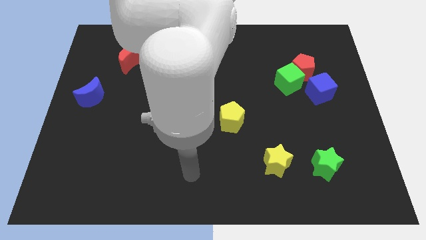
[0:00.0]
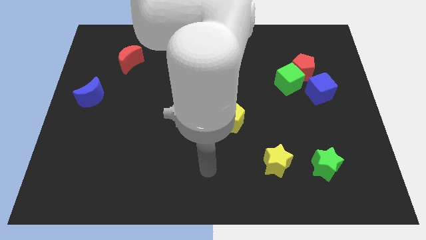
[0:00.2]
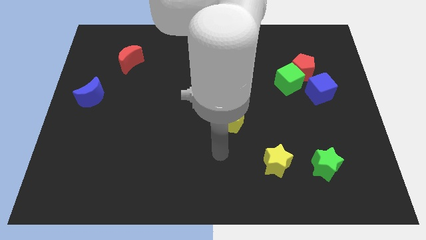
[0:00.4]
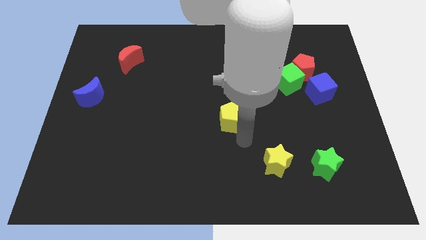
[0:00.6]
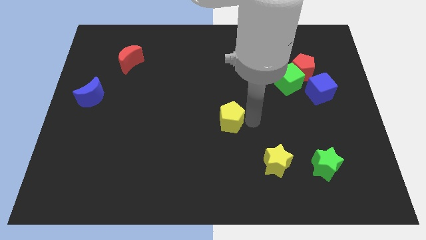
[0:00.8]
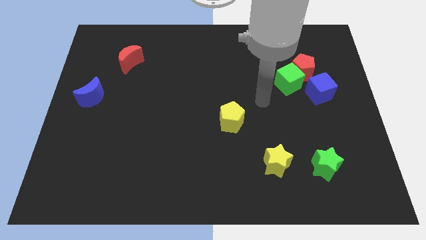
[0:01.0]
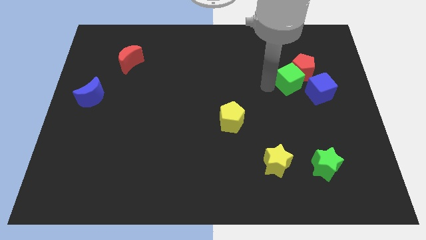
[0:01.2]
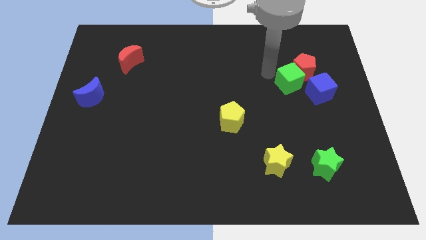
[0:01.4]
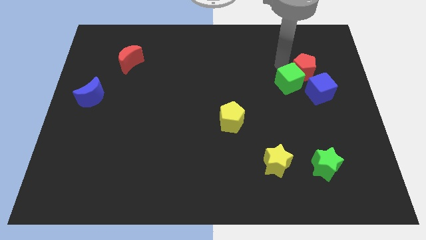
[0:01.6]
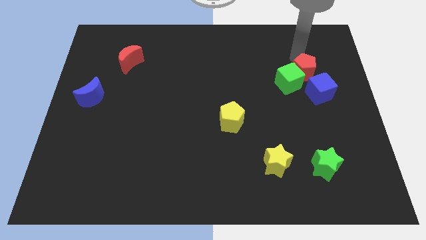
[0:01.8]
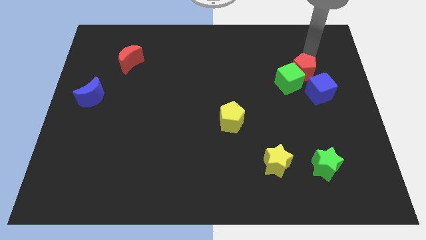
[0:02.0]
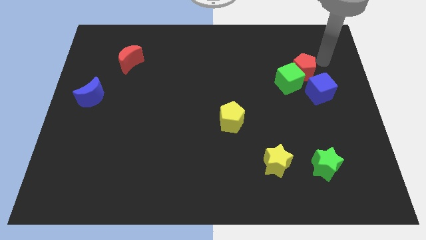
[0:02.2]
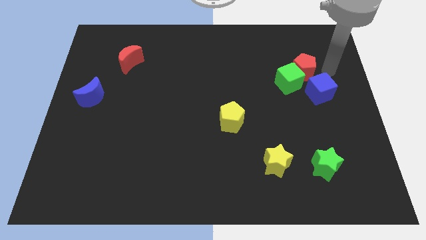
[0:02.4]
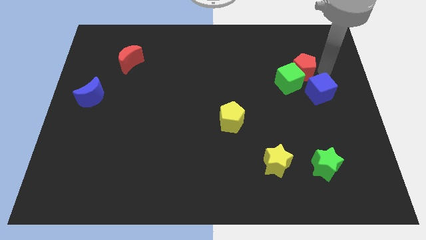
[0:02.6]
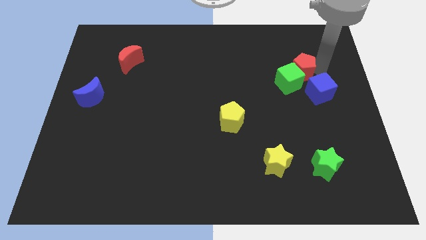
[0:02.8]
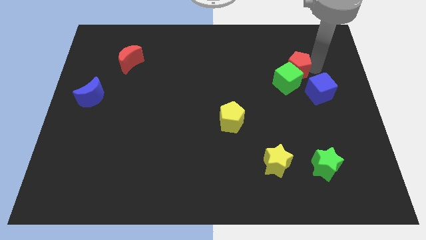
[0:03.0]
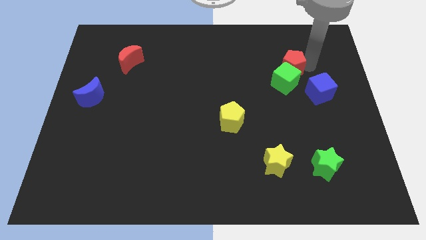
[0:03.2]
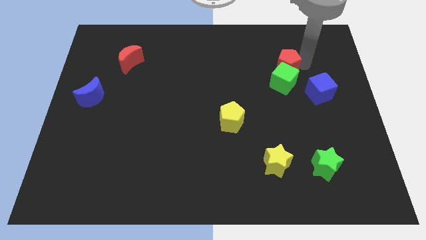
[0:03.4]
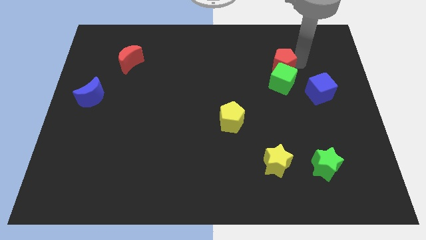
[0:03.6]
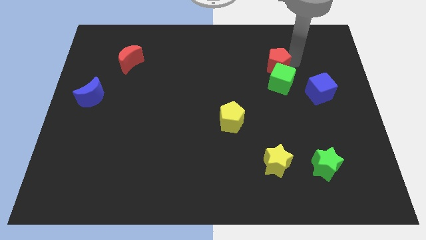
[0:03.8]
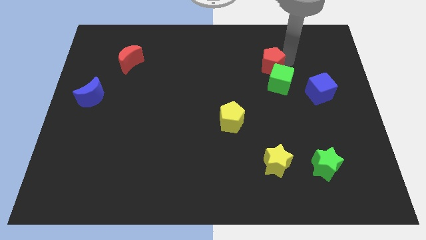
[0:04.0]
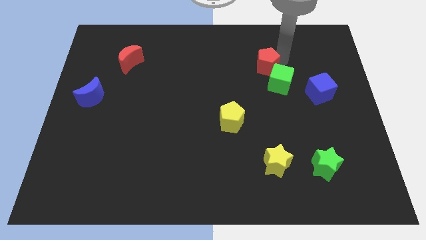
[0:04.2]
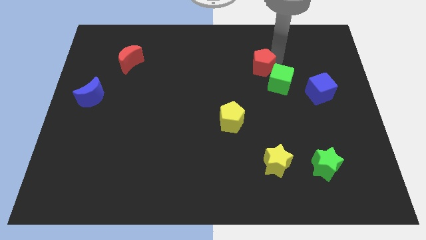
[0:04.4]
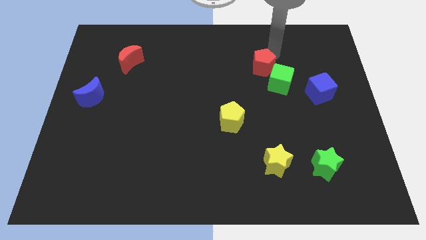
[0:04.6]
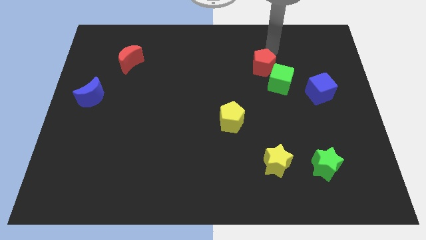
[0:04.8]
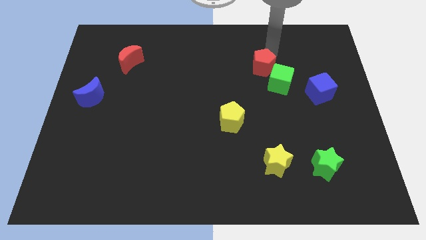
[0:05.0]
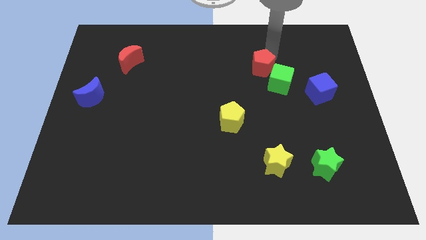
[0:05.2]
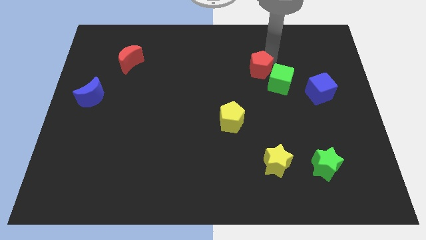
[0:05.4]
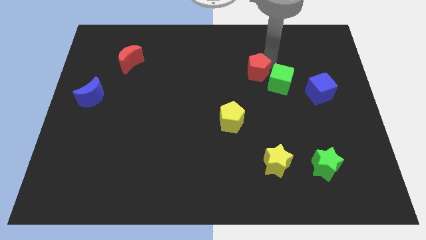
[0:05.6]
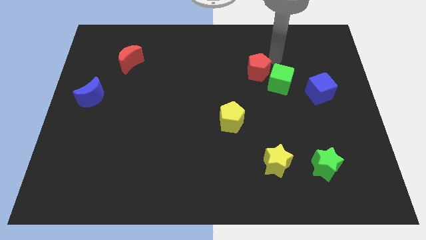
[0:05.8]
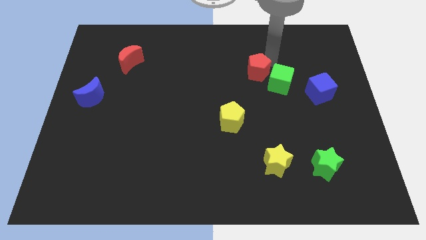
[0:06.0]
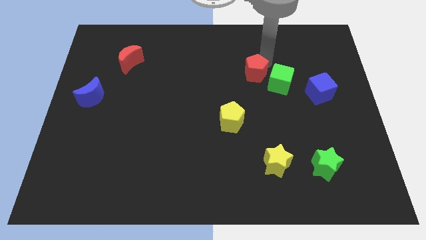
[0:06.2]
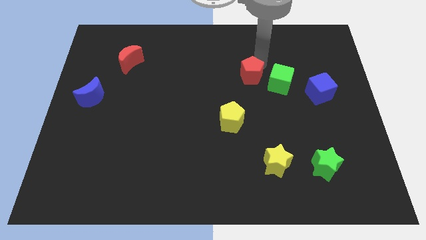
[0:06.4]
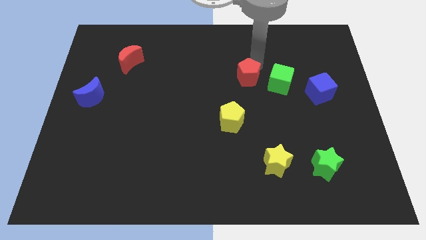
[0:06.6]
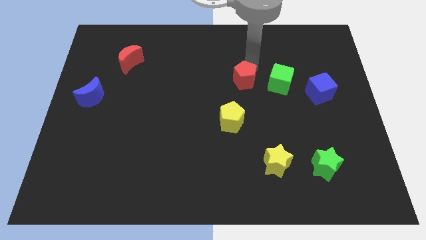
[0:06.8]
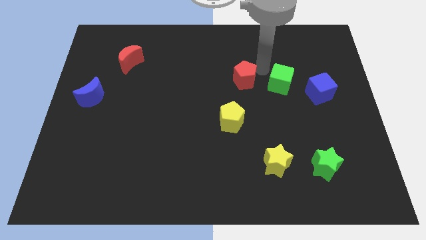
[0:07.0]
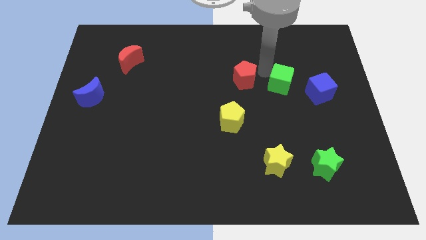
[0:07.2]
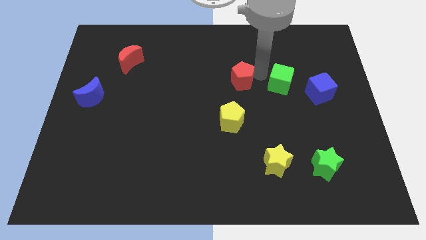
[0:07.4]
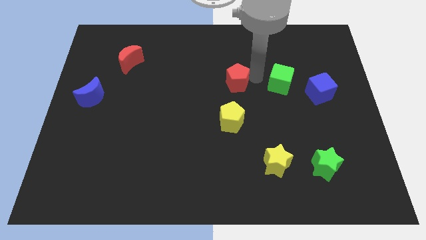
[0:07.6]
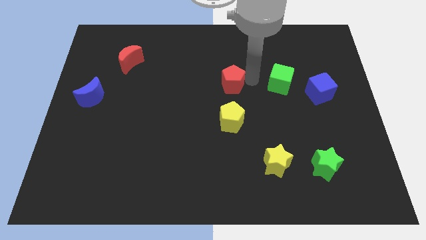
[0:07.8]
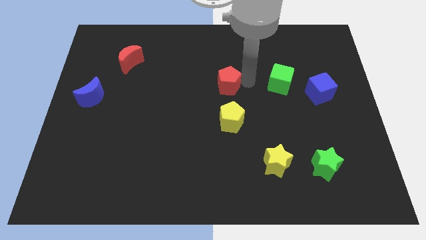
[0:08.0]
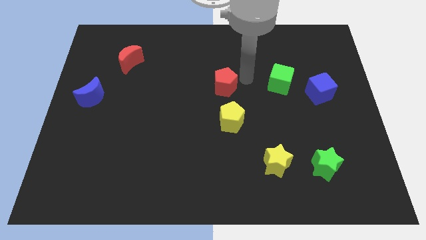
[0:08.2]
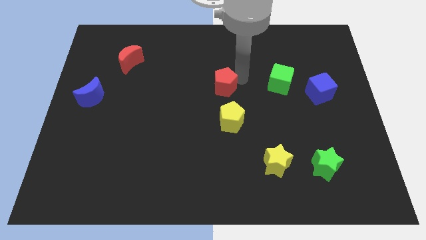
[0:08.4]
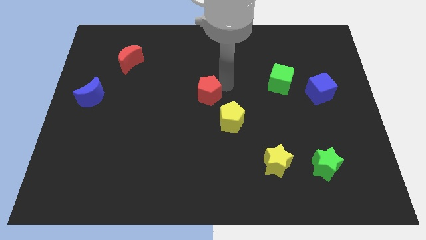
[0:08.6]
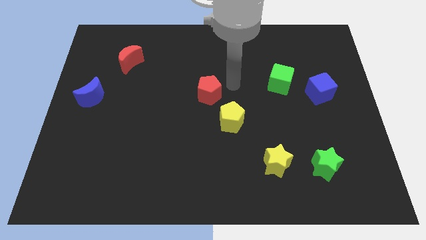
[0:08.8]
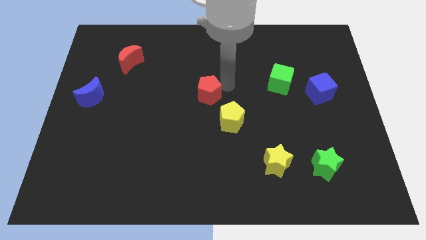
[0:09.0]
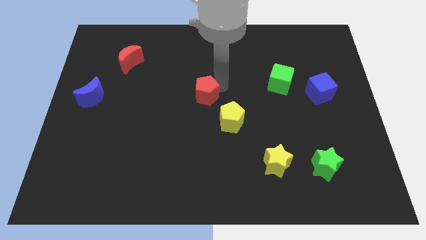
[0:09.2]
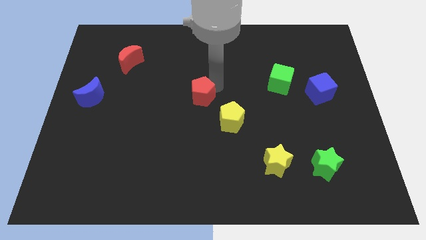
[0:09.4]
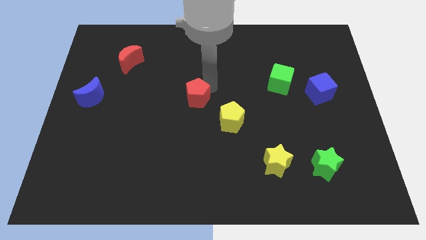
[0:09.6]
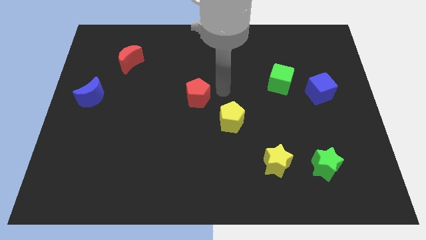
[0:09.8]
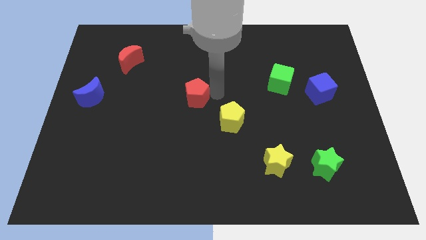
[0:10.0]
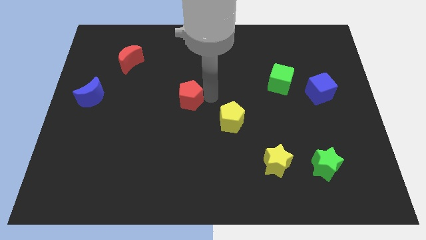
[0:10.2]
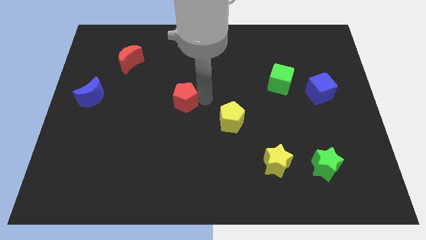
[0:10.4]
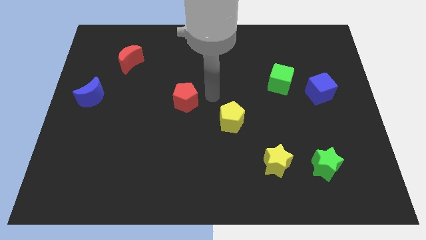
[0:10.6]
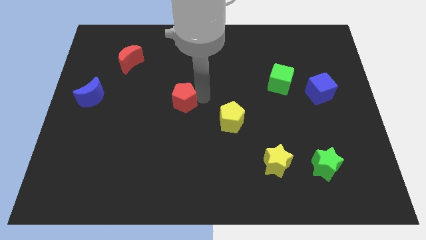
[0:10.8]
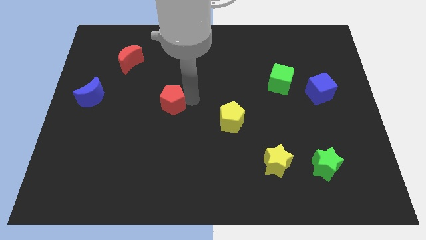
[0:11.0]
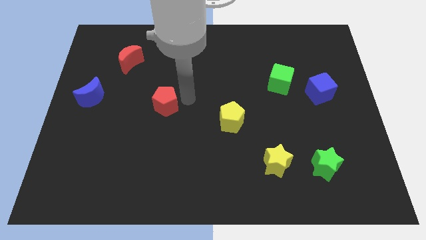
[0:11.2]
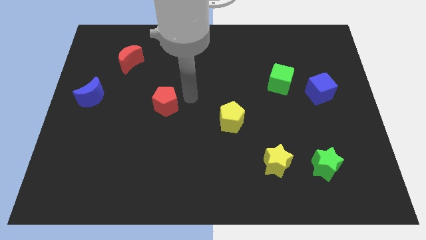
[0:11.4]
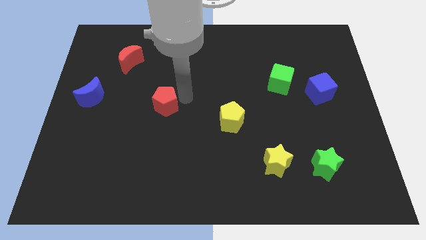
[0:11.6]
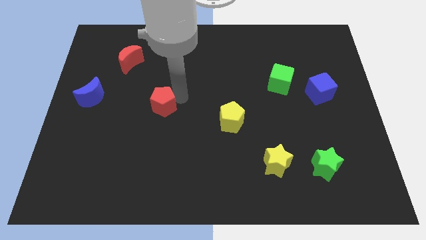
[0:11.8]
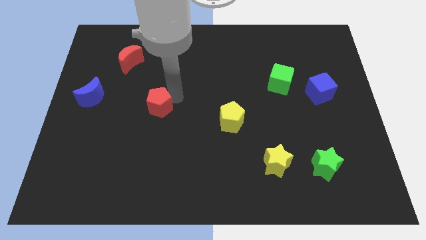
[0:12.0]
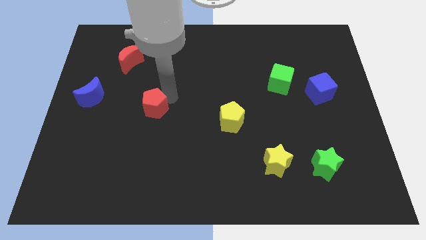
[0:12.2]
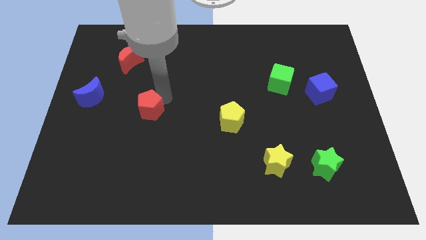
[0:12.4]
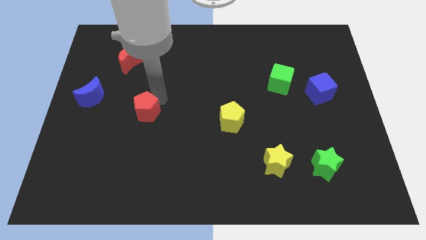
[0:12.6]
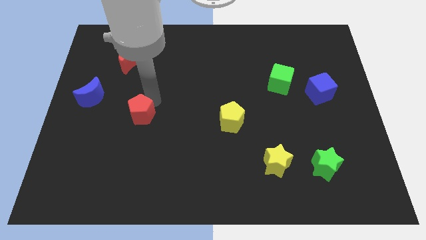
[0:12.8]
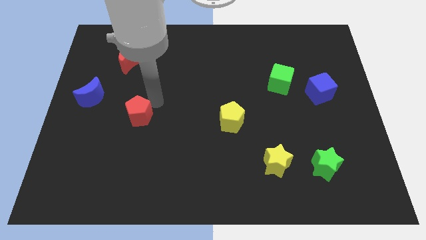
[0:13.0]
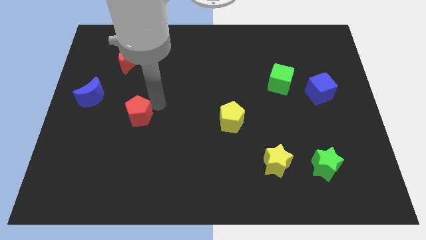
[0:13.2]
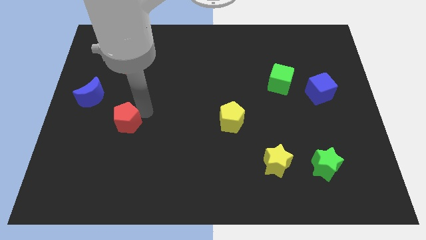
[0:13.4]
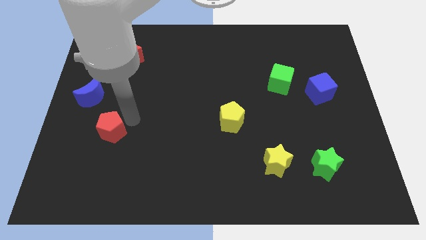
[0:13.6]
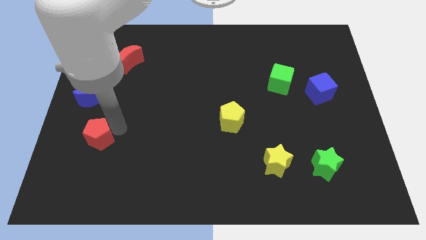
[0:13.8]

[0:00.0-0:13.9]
put the red pentagon below the blue moon
